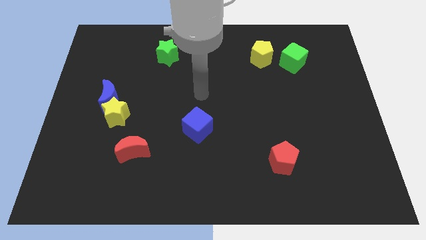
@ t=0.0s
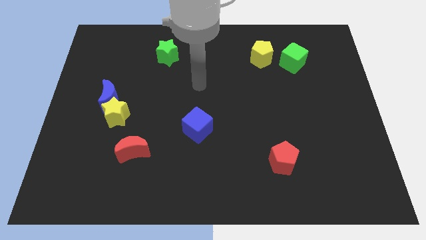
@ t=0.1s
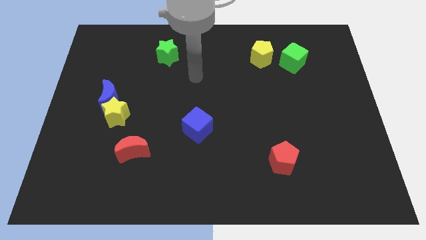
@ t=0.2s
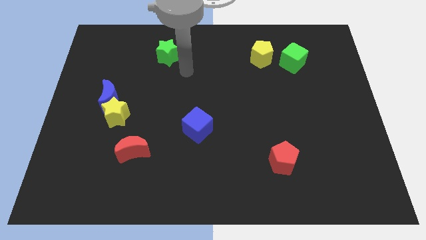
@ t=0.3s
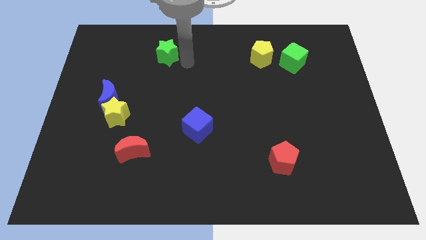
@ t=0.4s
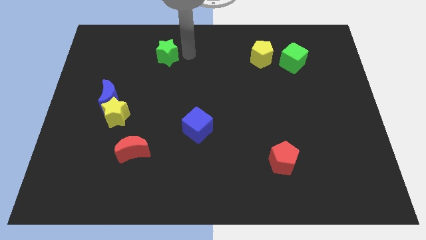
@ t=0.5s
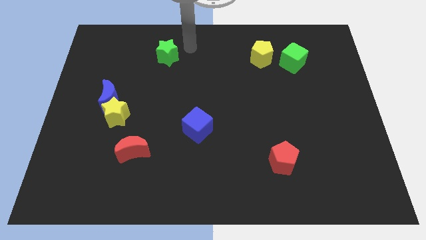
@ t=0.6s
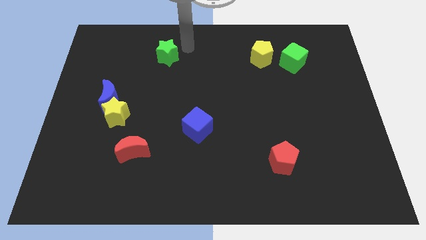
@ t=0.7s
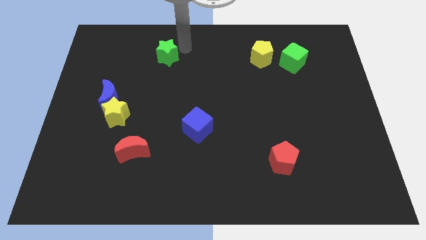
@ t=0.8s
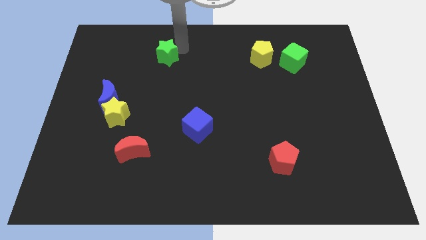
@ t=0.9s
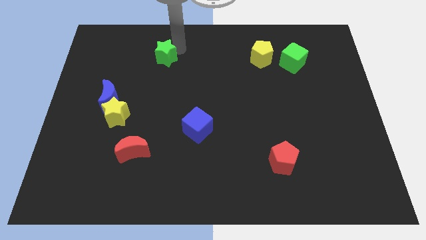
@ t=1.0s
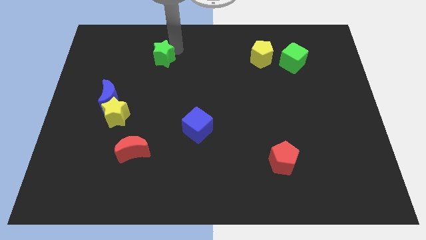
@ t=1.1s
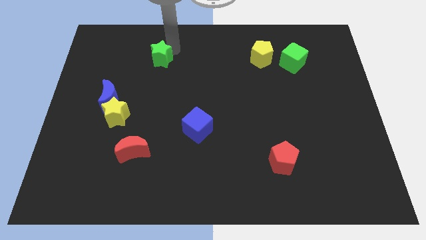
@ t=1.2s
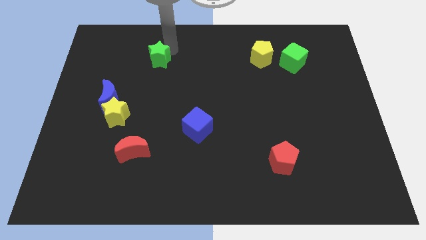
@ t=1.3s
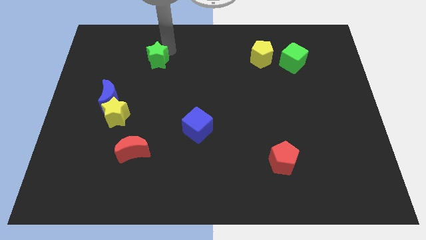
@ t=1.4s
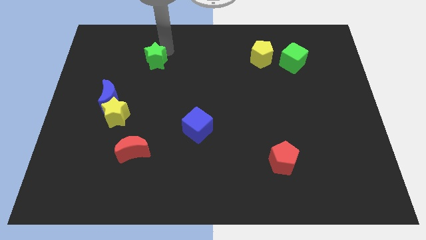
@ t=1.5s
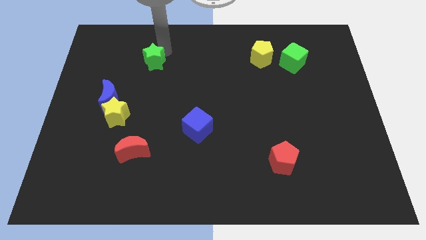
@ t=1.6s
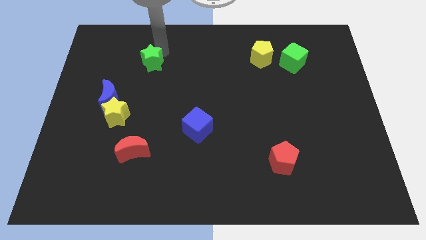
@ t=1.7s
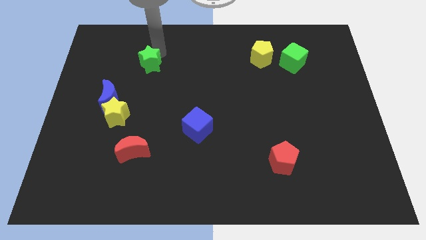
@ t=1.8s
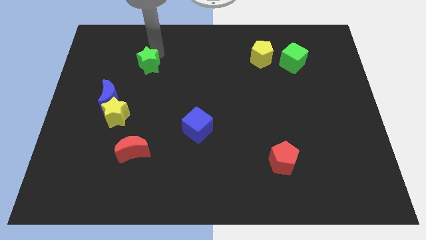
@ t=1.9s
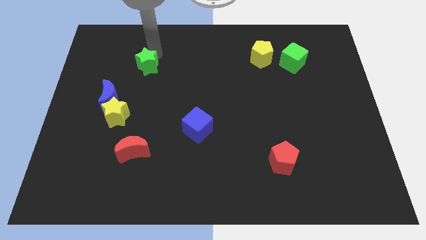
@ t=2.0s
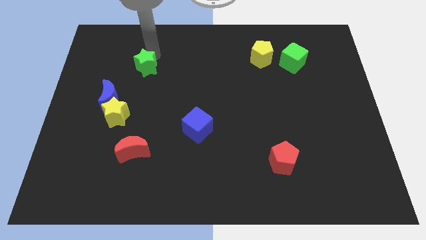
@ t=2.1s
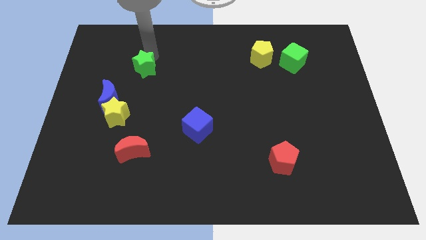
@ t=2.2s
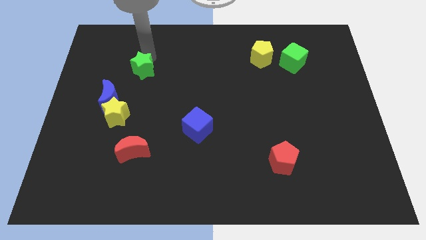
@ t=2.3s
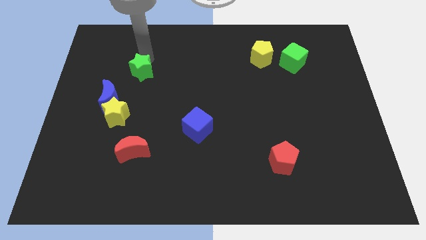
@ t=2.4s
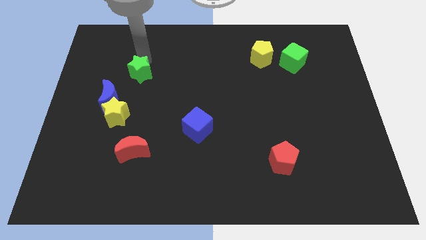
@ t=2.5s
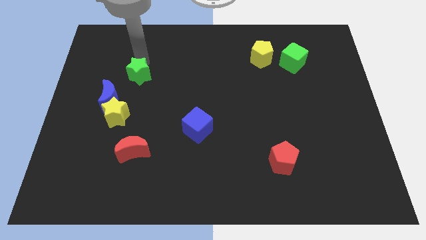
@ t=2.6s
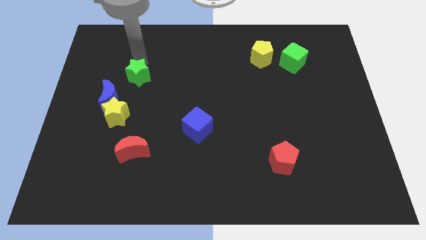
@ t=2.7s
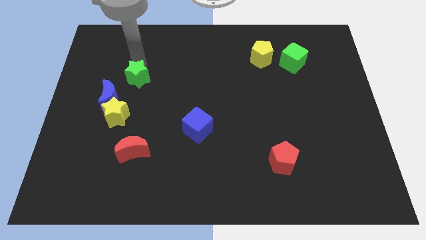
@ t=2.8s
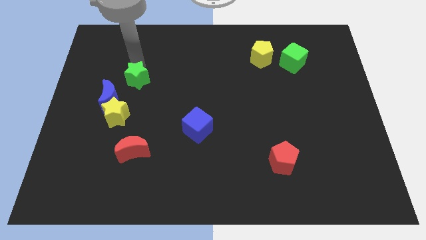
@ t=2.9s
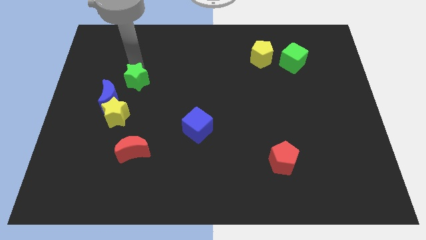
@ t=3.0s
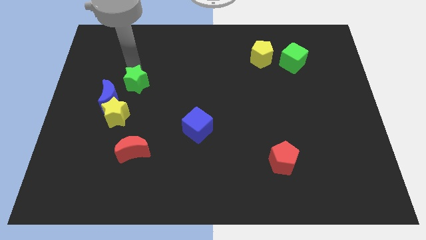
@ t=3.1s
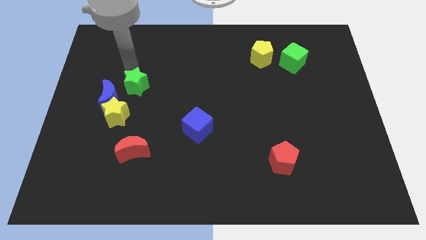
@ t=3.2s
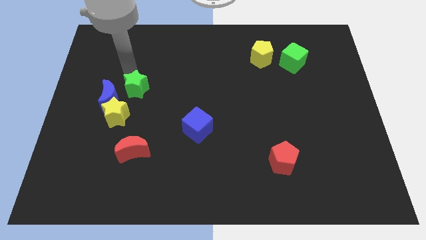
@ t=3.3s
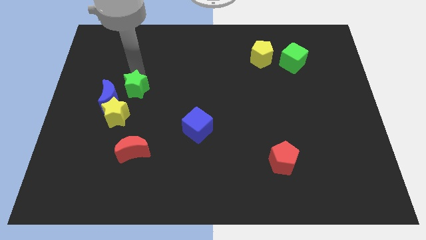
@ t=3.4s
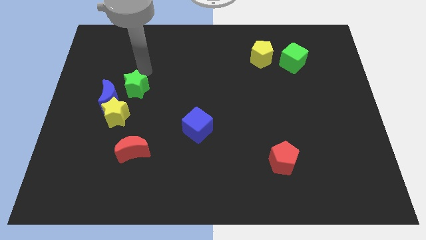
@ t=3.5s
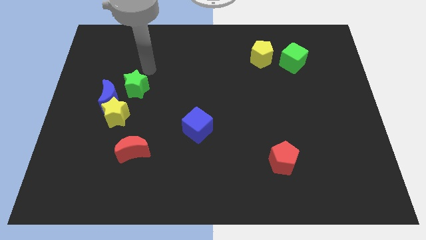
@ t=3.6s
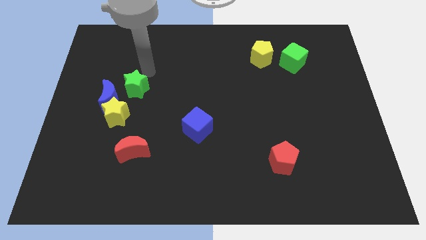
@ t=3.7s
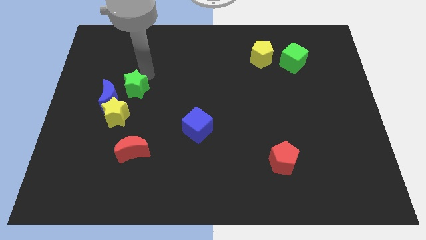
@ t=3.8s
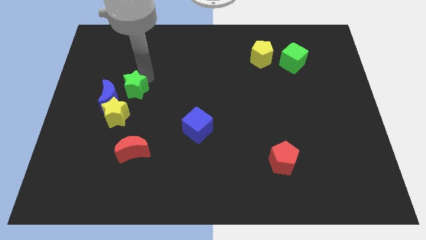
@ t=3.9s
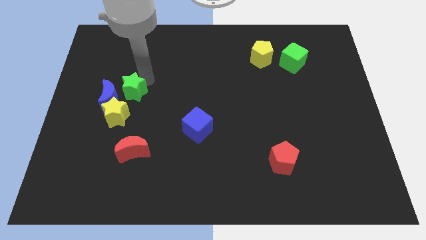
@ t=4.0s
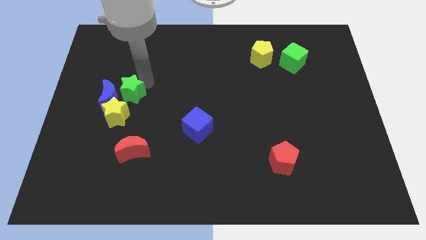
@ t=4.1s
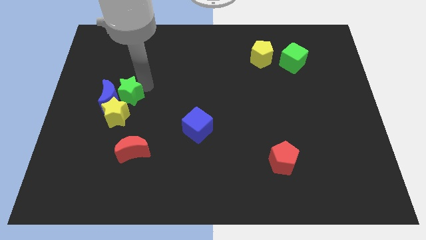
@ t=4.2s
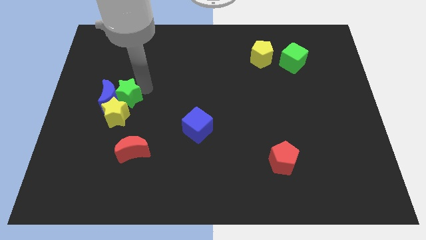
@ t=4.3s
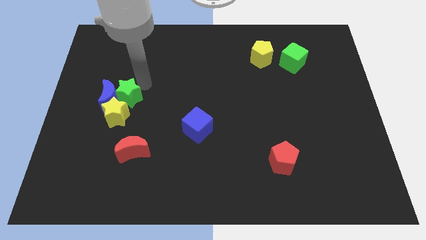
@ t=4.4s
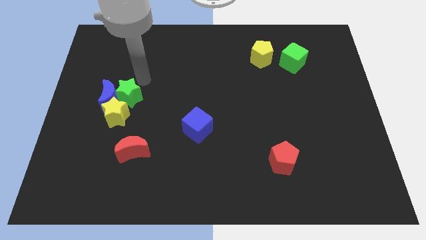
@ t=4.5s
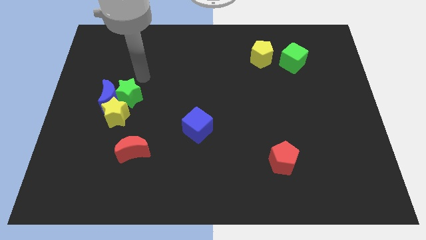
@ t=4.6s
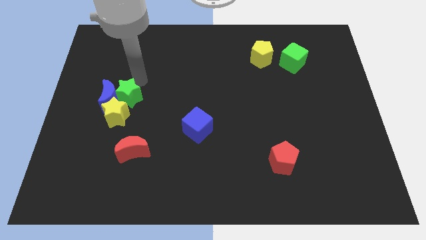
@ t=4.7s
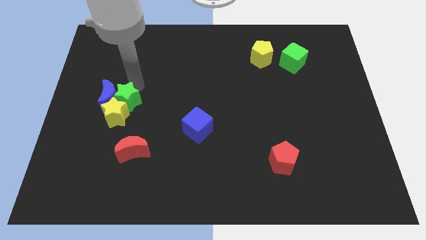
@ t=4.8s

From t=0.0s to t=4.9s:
move the green star towards the yellow star

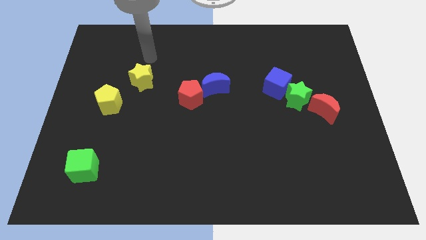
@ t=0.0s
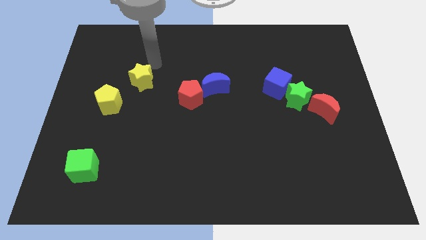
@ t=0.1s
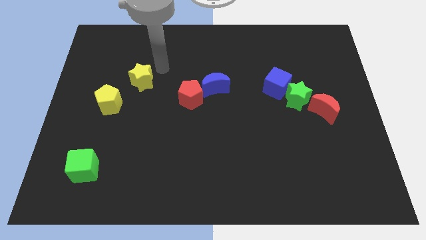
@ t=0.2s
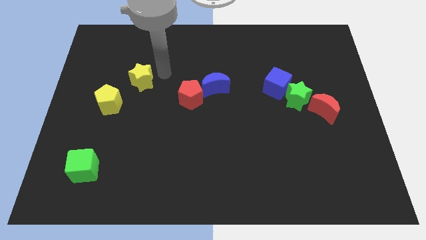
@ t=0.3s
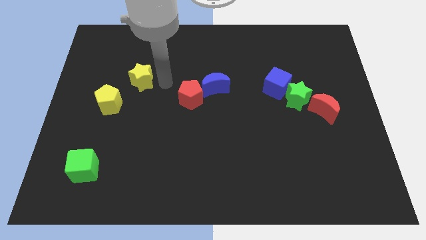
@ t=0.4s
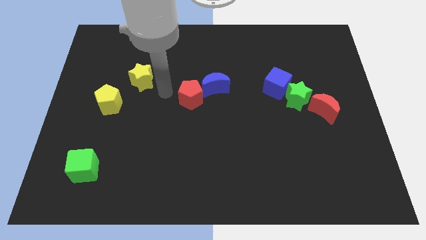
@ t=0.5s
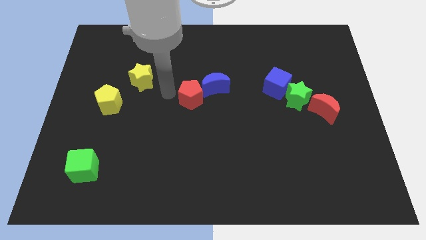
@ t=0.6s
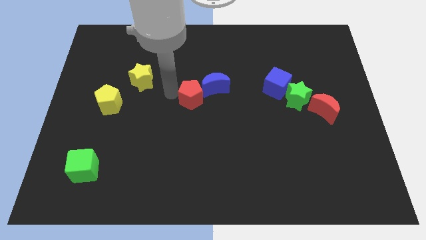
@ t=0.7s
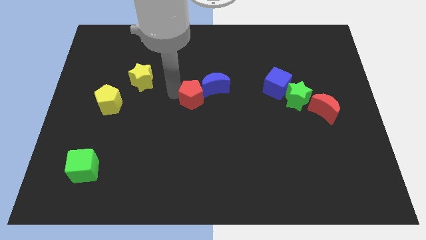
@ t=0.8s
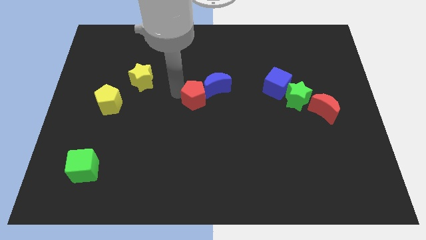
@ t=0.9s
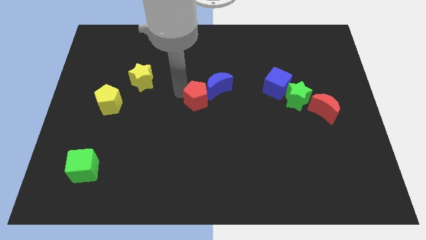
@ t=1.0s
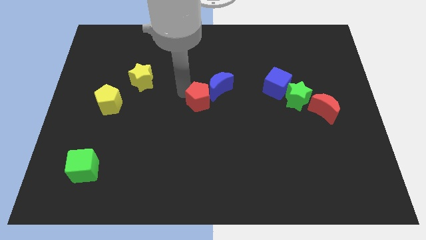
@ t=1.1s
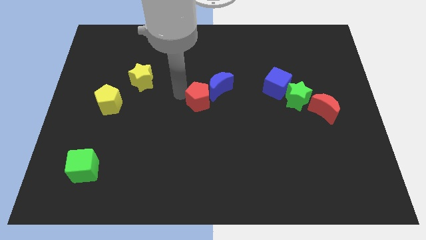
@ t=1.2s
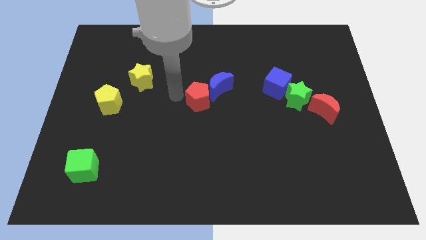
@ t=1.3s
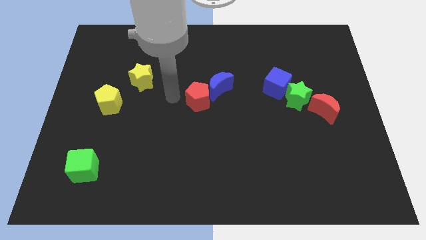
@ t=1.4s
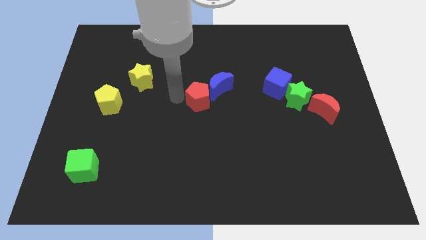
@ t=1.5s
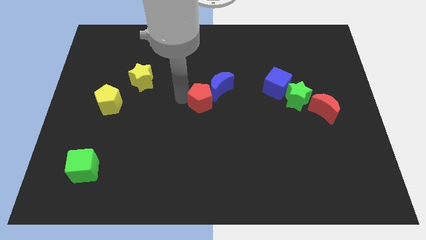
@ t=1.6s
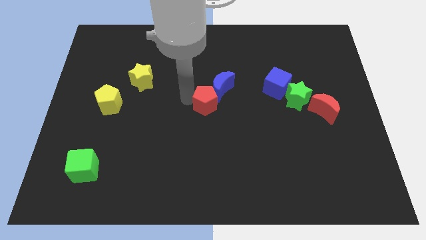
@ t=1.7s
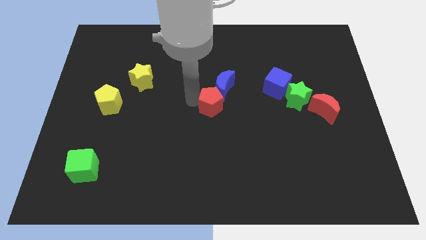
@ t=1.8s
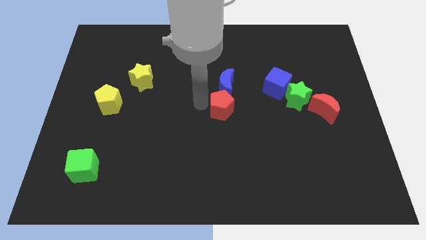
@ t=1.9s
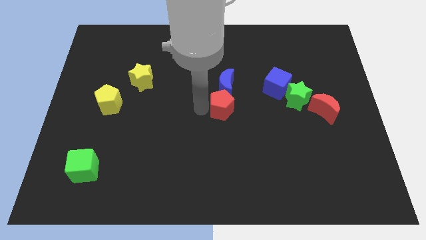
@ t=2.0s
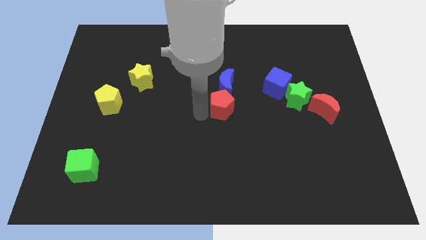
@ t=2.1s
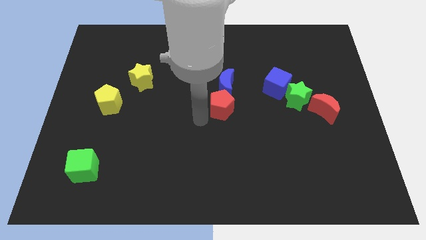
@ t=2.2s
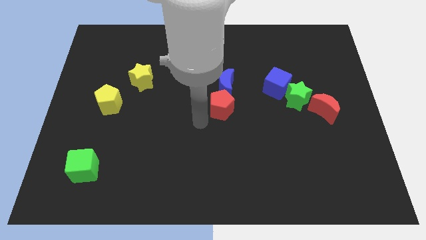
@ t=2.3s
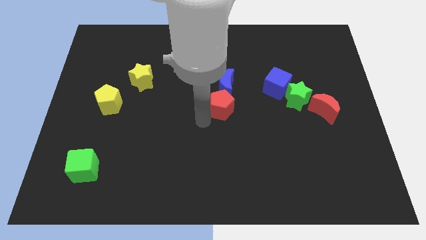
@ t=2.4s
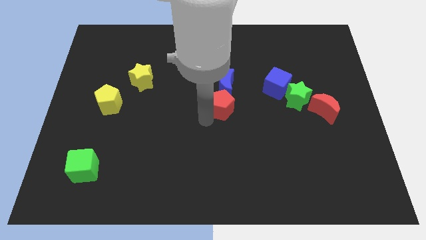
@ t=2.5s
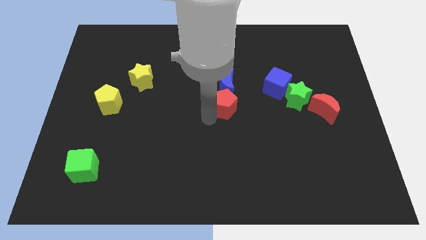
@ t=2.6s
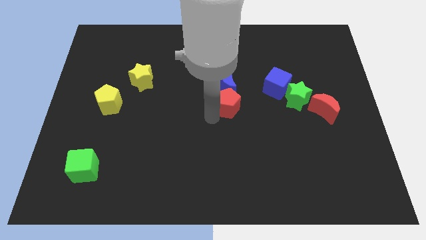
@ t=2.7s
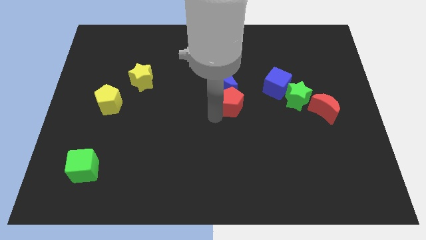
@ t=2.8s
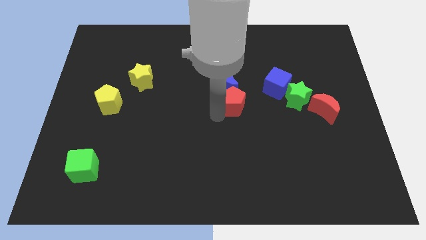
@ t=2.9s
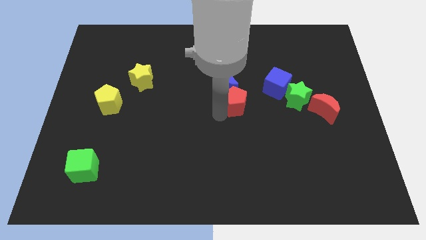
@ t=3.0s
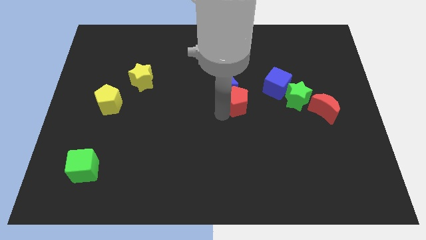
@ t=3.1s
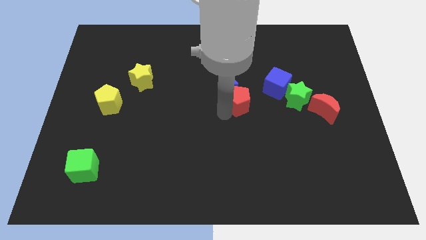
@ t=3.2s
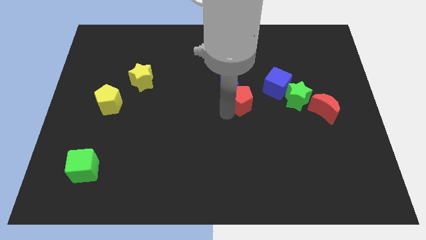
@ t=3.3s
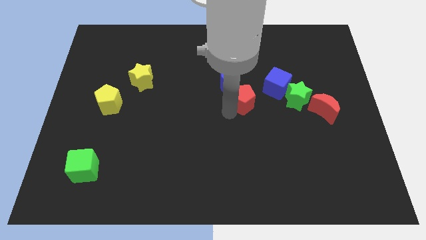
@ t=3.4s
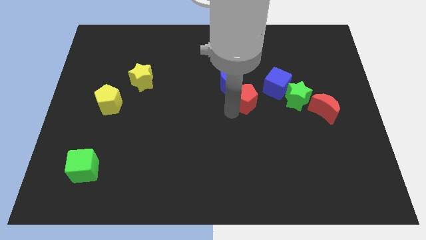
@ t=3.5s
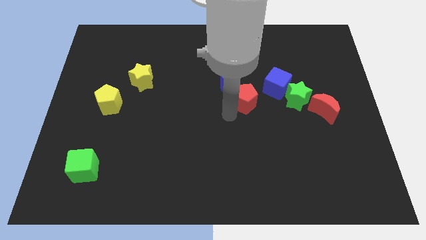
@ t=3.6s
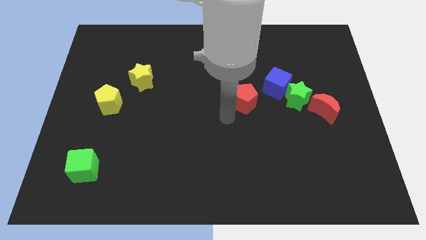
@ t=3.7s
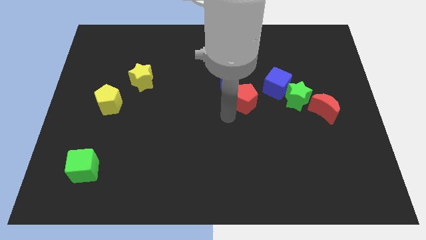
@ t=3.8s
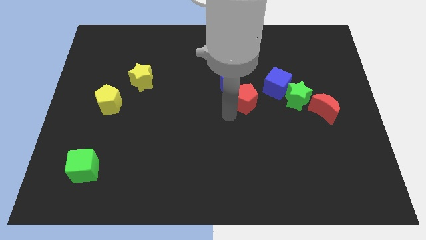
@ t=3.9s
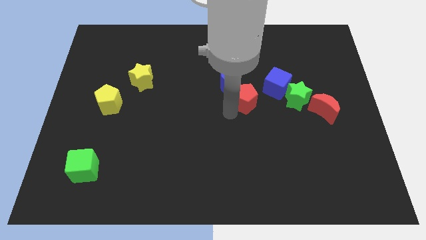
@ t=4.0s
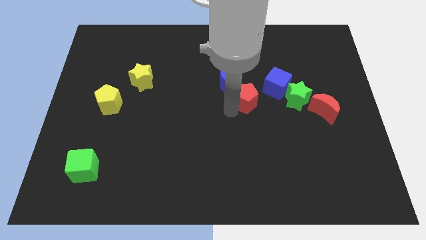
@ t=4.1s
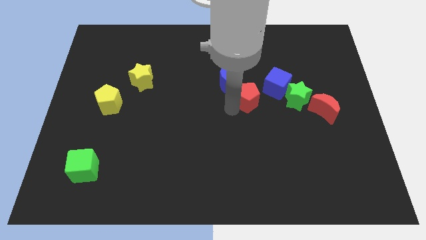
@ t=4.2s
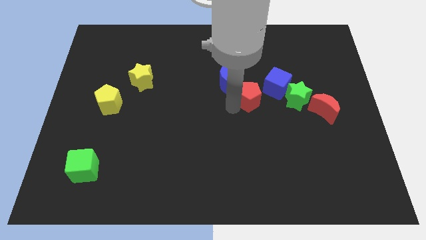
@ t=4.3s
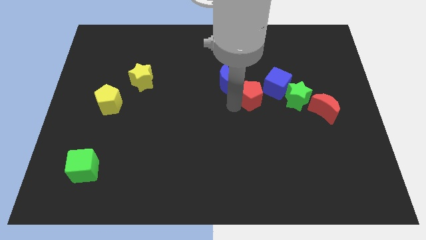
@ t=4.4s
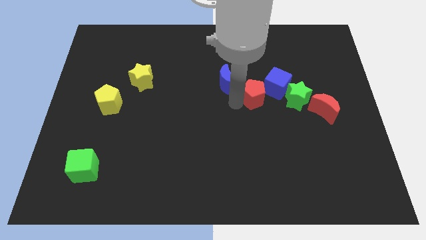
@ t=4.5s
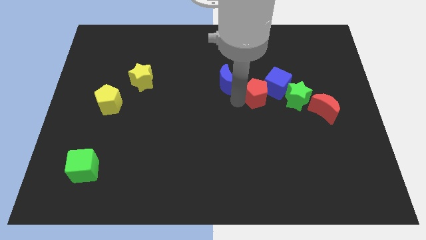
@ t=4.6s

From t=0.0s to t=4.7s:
push the red pentagon next to the blue cube
